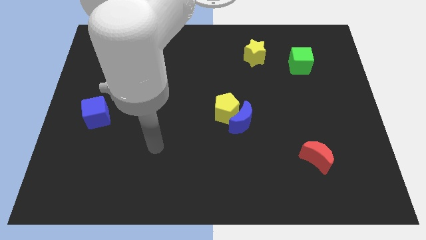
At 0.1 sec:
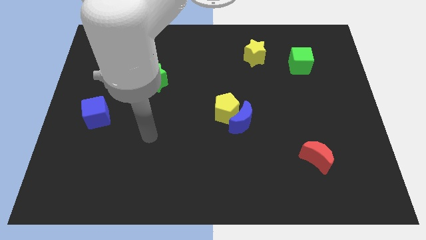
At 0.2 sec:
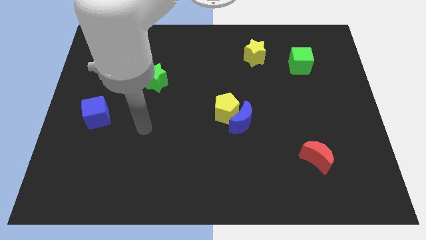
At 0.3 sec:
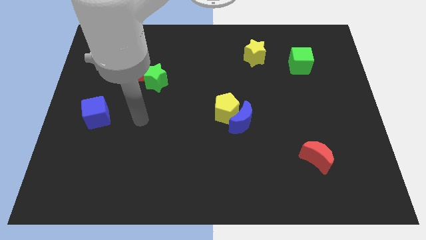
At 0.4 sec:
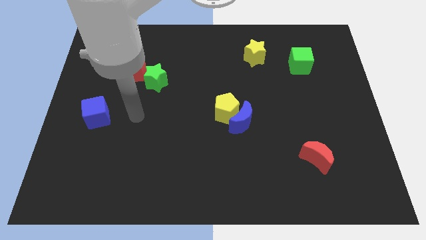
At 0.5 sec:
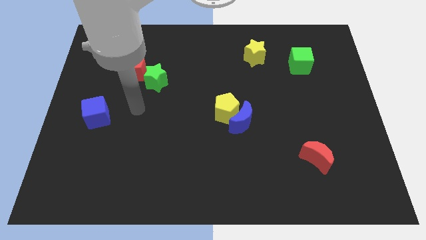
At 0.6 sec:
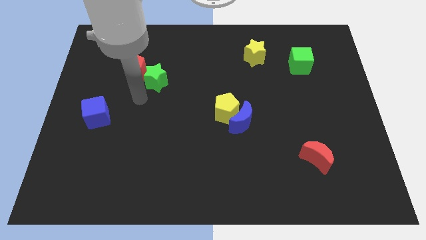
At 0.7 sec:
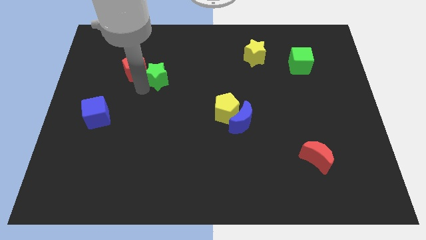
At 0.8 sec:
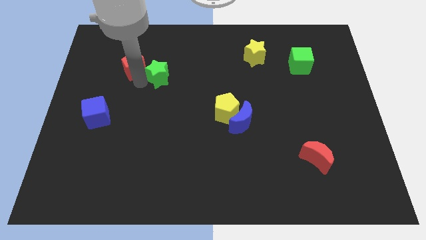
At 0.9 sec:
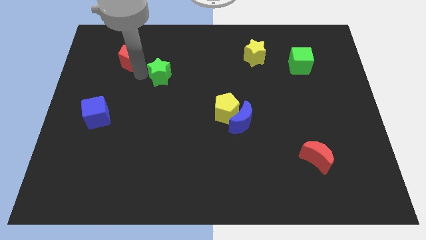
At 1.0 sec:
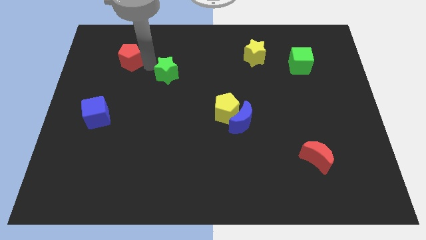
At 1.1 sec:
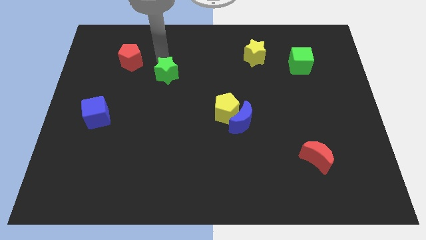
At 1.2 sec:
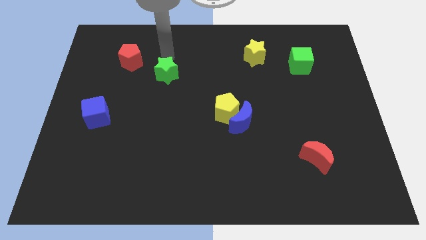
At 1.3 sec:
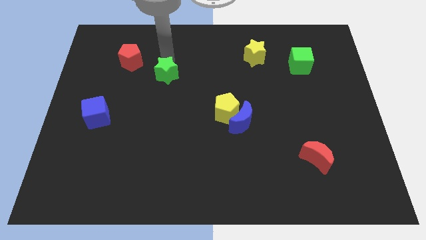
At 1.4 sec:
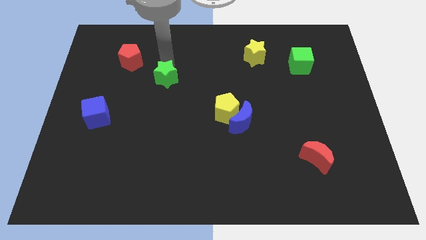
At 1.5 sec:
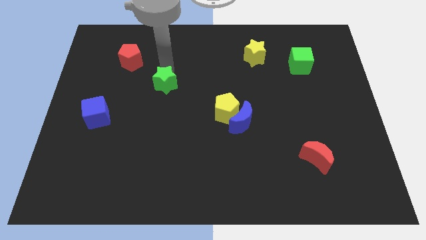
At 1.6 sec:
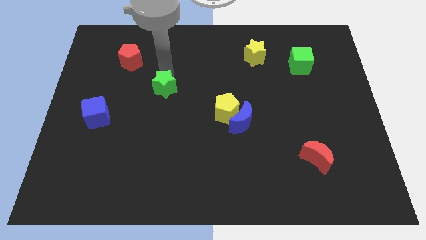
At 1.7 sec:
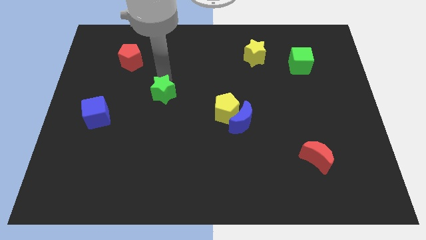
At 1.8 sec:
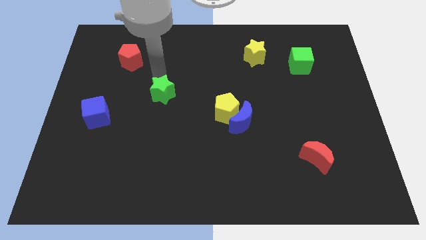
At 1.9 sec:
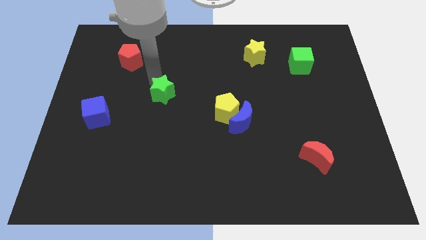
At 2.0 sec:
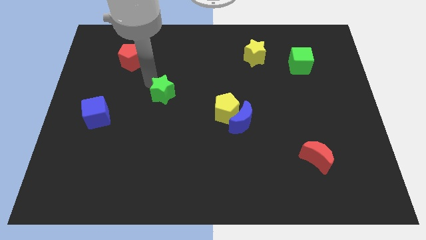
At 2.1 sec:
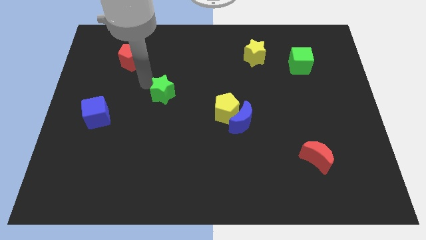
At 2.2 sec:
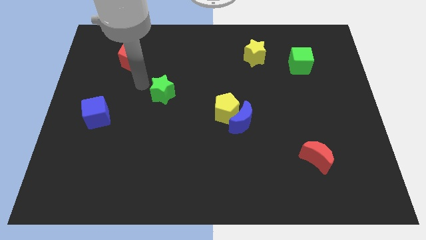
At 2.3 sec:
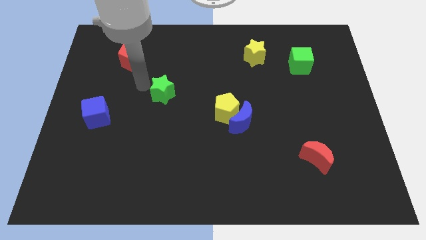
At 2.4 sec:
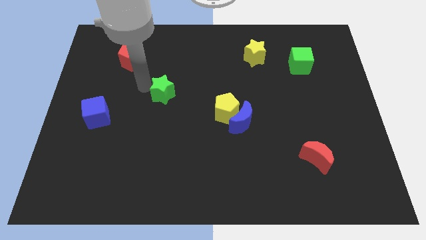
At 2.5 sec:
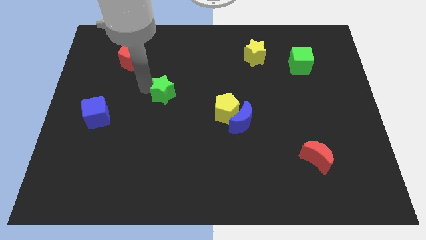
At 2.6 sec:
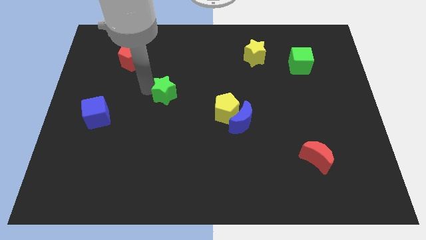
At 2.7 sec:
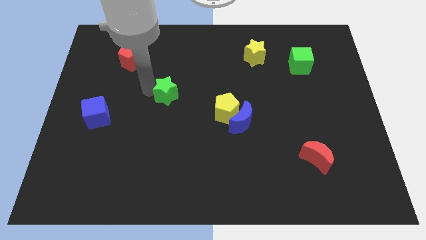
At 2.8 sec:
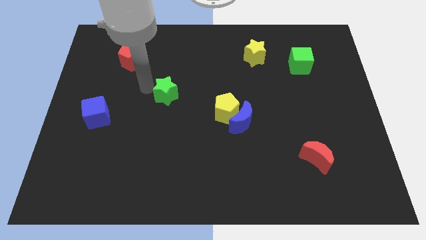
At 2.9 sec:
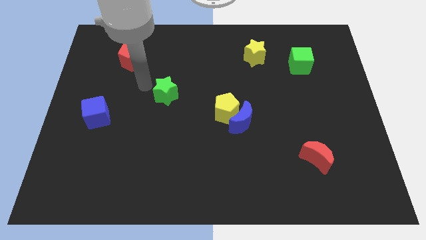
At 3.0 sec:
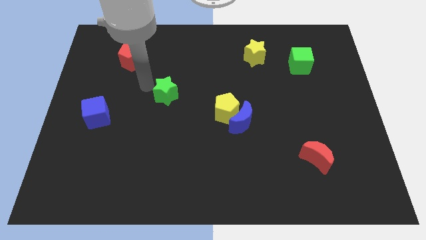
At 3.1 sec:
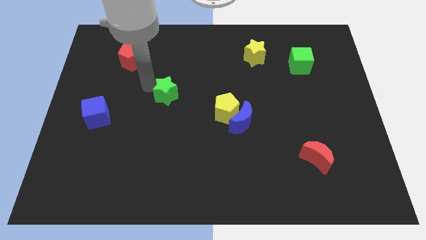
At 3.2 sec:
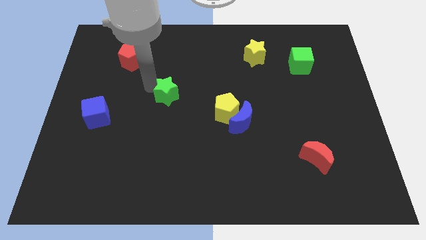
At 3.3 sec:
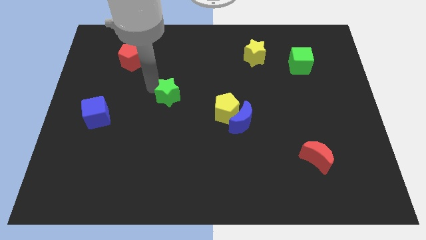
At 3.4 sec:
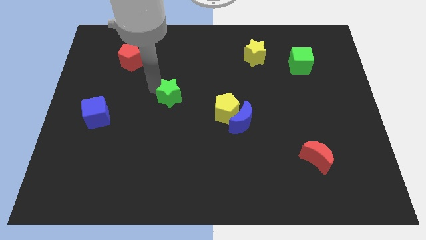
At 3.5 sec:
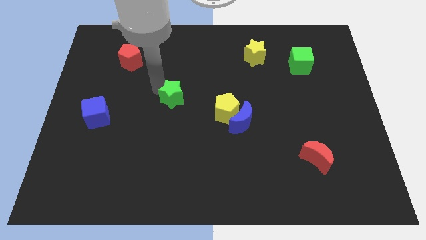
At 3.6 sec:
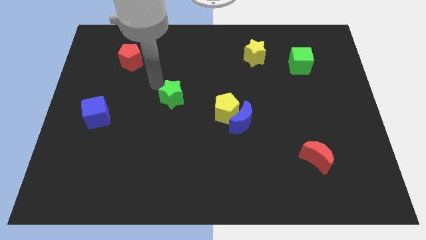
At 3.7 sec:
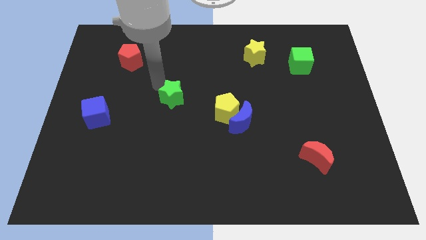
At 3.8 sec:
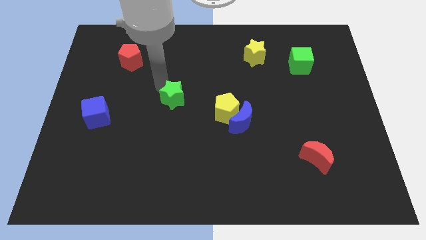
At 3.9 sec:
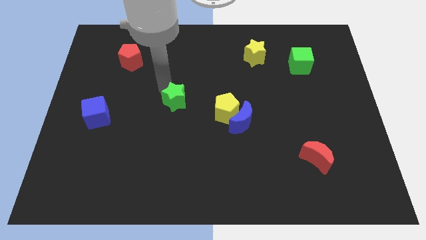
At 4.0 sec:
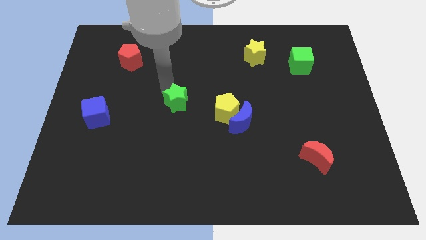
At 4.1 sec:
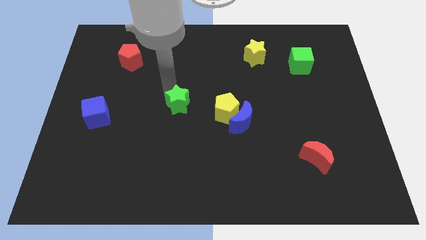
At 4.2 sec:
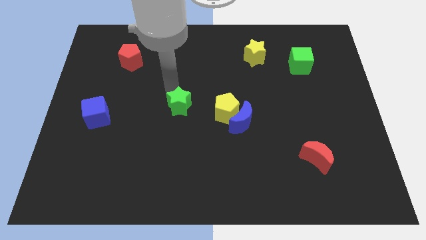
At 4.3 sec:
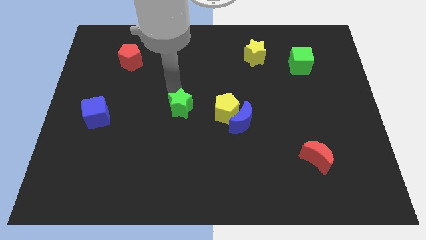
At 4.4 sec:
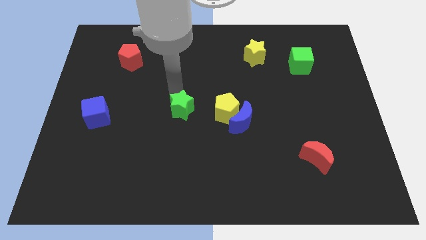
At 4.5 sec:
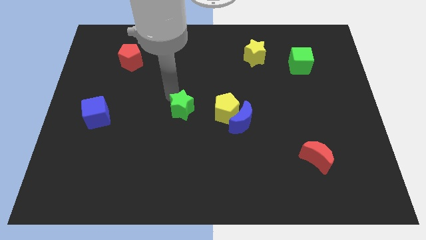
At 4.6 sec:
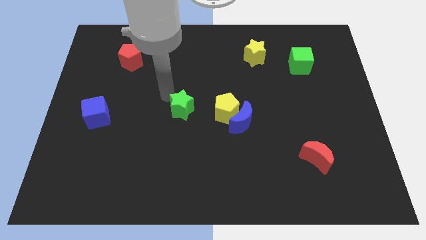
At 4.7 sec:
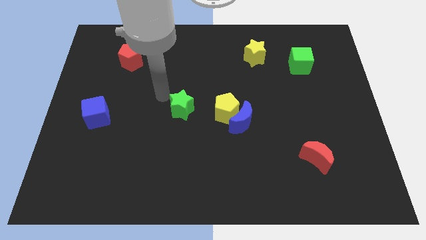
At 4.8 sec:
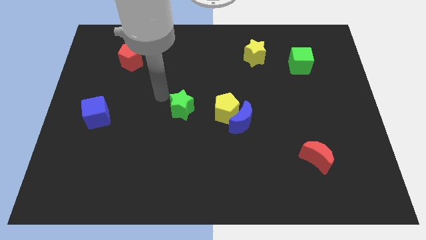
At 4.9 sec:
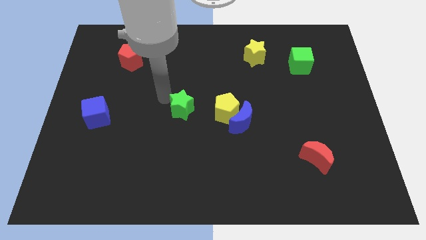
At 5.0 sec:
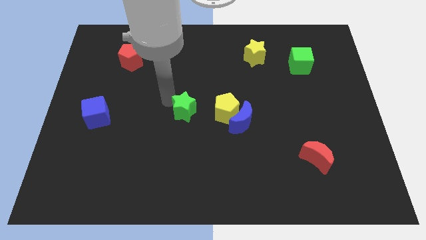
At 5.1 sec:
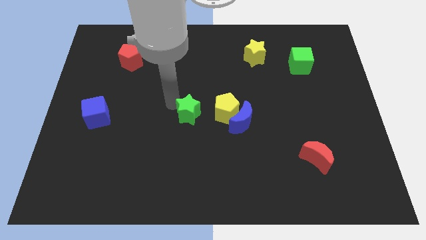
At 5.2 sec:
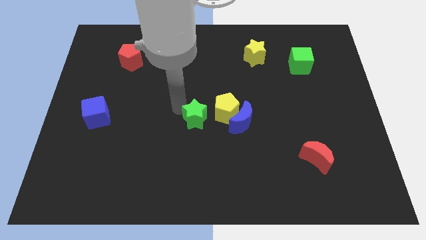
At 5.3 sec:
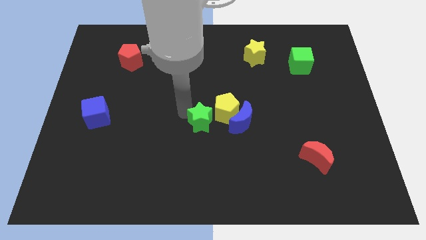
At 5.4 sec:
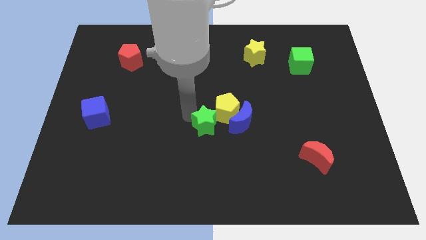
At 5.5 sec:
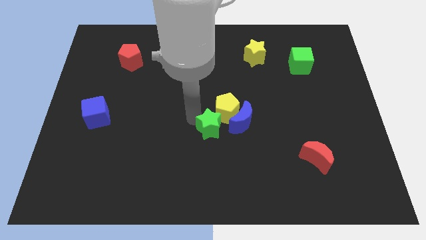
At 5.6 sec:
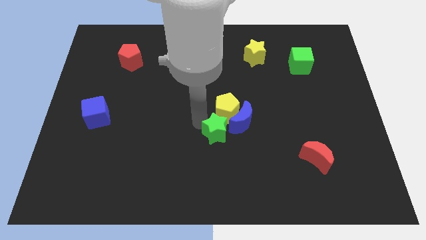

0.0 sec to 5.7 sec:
move the green star diagonally downwards and to the right

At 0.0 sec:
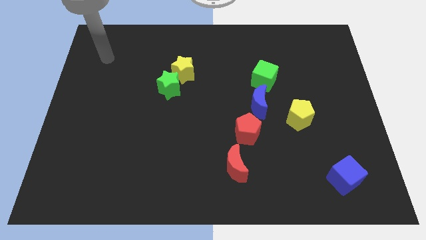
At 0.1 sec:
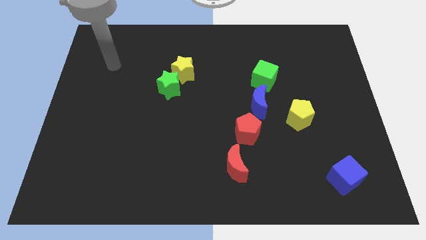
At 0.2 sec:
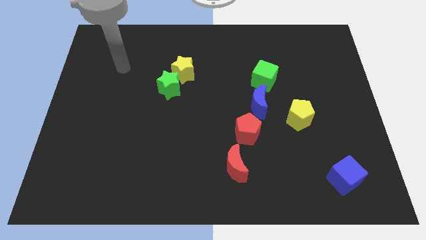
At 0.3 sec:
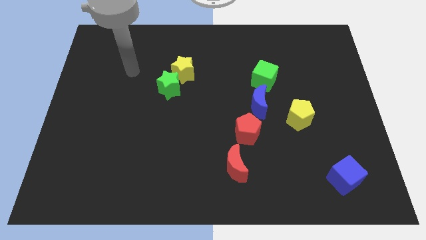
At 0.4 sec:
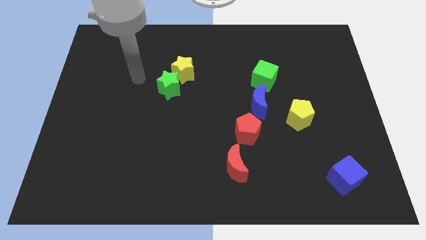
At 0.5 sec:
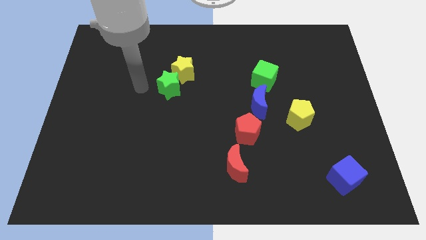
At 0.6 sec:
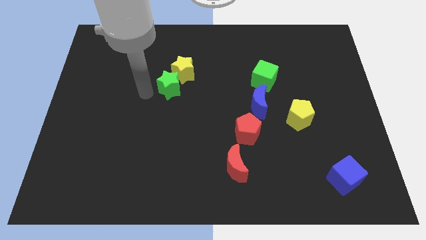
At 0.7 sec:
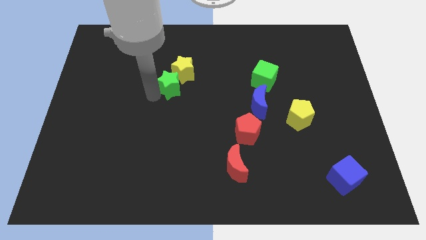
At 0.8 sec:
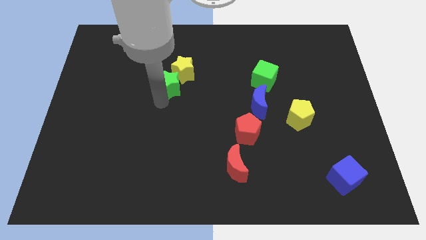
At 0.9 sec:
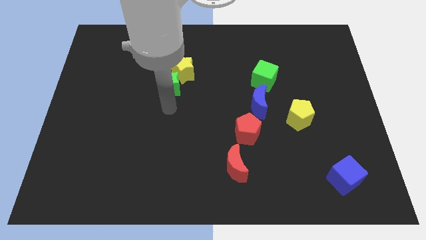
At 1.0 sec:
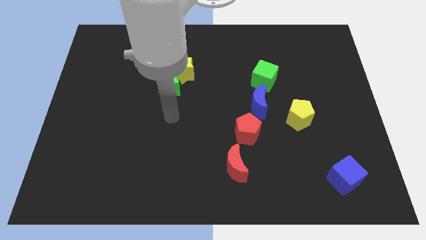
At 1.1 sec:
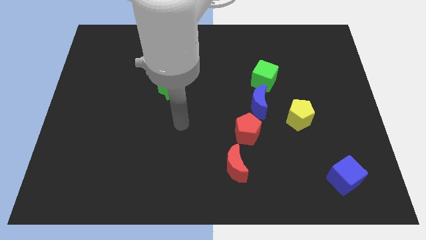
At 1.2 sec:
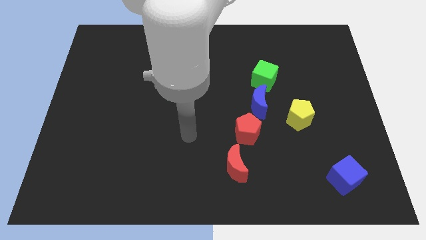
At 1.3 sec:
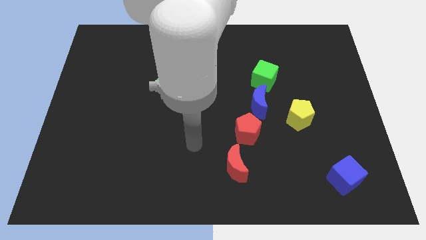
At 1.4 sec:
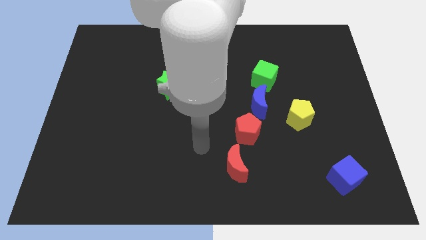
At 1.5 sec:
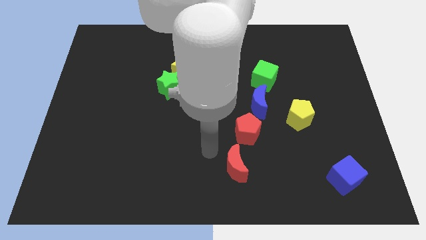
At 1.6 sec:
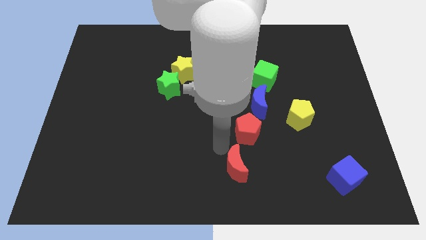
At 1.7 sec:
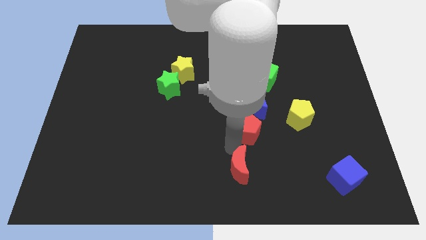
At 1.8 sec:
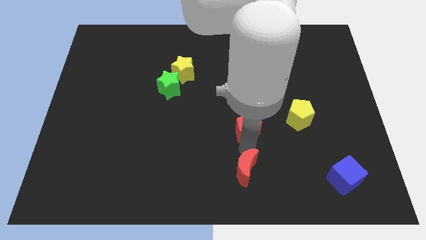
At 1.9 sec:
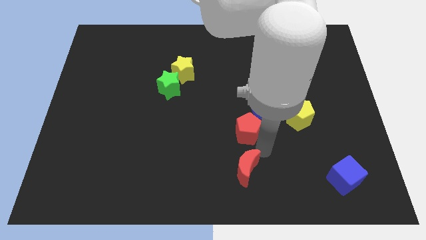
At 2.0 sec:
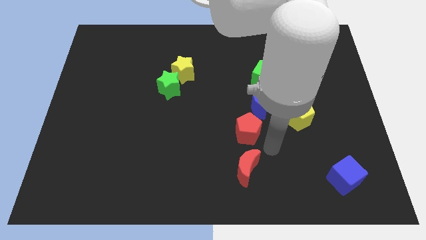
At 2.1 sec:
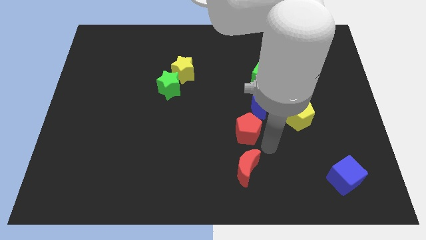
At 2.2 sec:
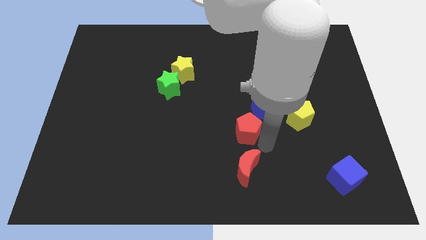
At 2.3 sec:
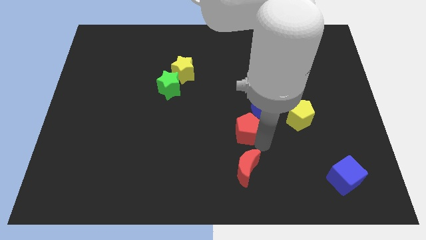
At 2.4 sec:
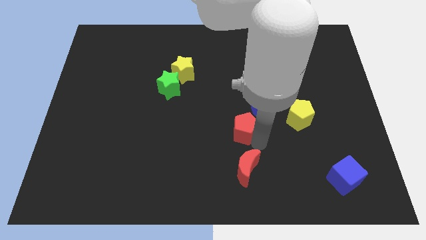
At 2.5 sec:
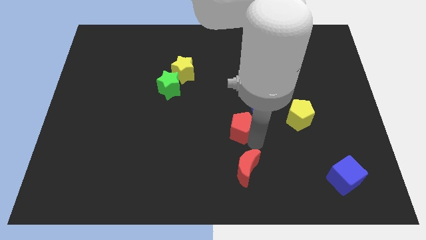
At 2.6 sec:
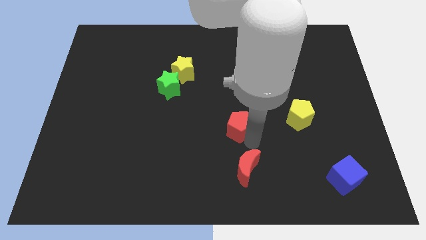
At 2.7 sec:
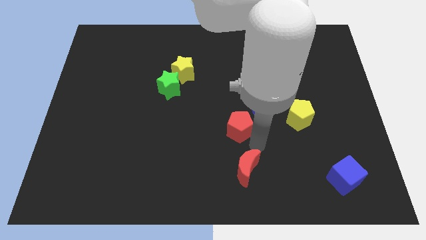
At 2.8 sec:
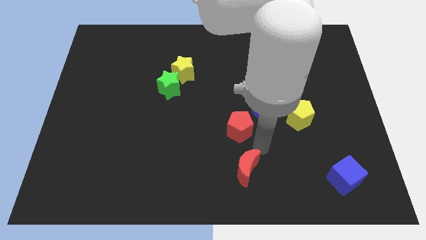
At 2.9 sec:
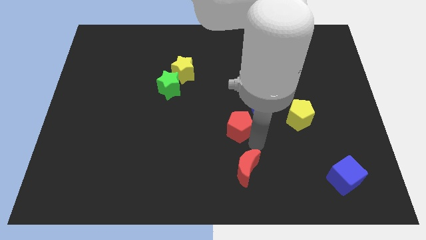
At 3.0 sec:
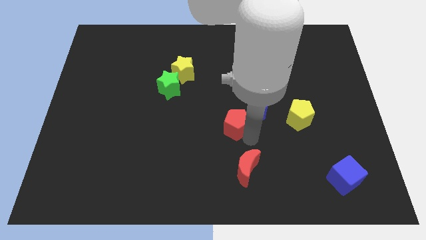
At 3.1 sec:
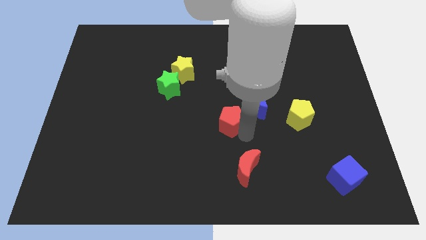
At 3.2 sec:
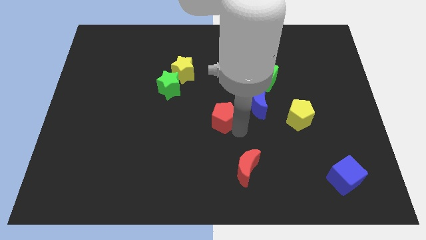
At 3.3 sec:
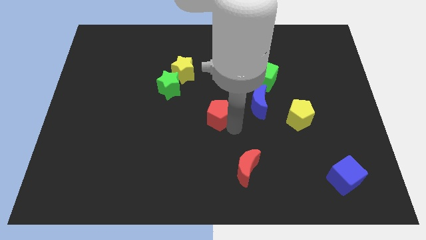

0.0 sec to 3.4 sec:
slide the red pentagon upwards and left somewhat
